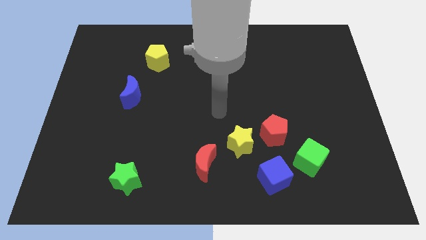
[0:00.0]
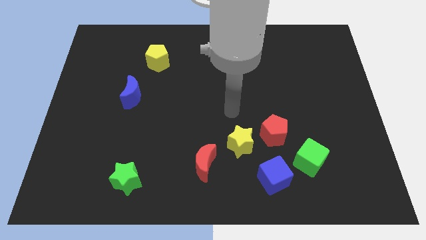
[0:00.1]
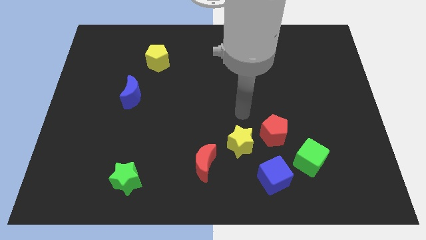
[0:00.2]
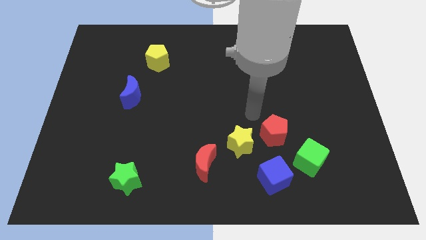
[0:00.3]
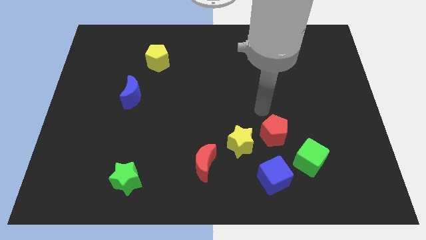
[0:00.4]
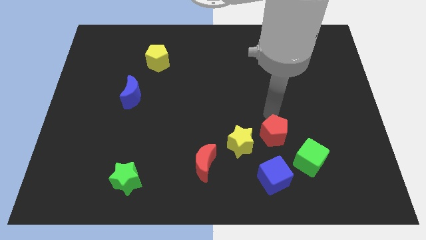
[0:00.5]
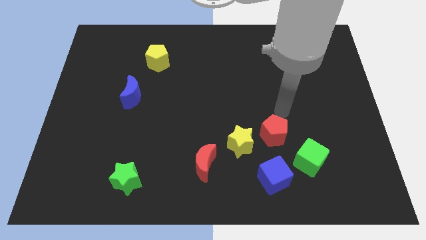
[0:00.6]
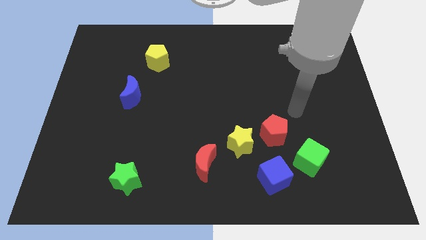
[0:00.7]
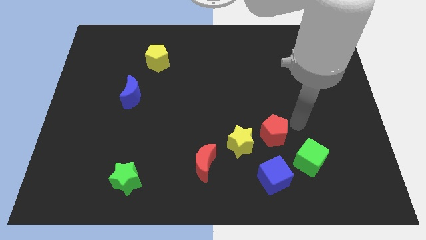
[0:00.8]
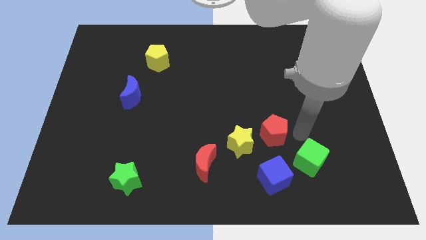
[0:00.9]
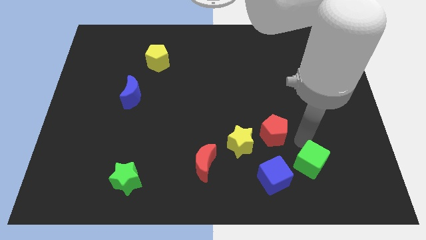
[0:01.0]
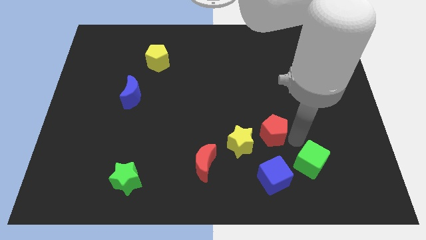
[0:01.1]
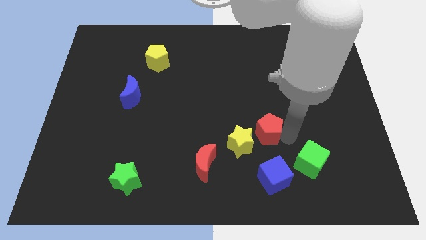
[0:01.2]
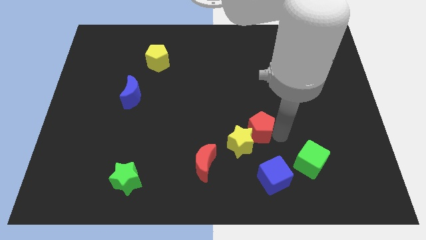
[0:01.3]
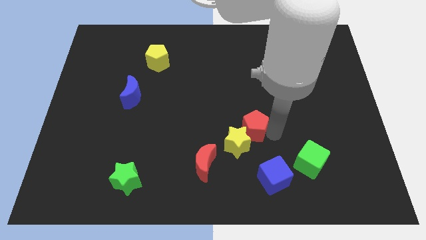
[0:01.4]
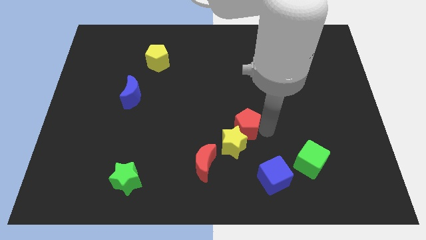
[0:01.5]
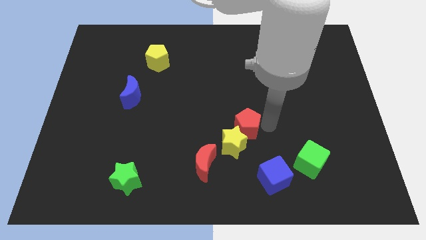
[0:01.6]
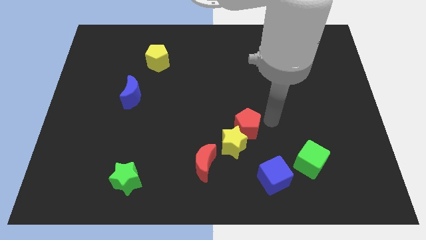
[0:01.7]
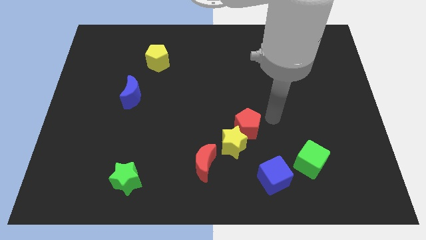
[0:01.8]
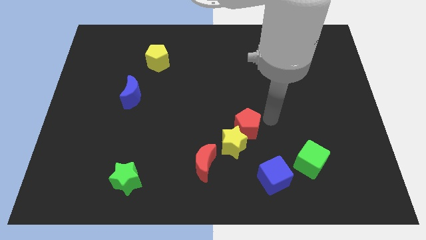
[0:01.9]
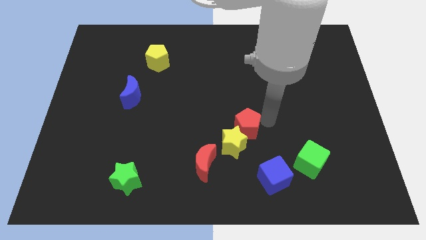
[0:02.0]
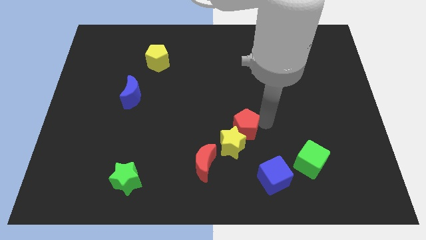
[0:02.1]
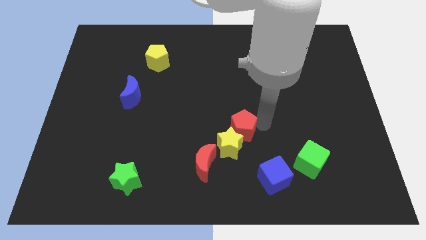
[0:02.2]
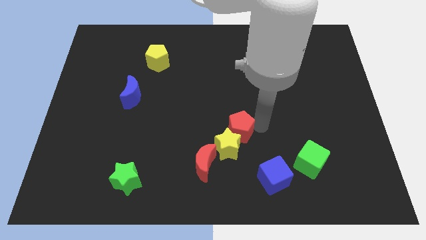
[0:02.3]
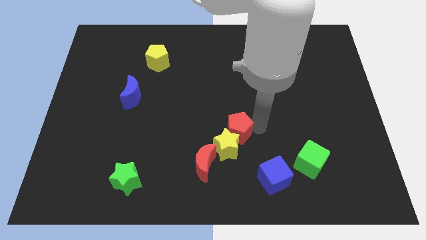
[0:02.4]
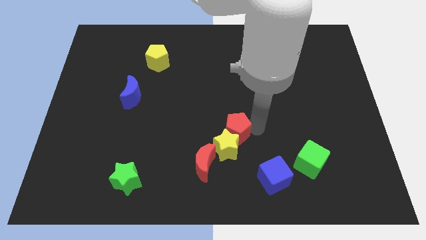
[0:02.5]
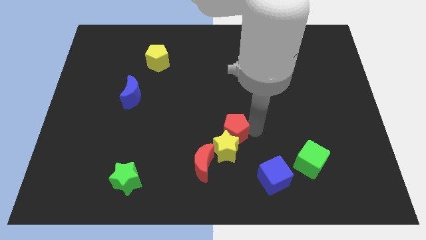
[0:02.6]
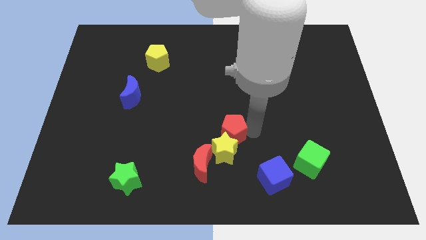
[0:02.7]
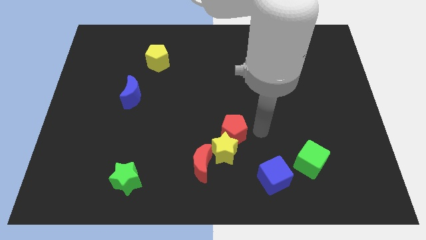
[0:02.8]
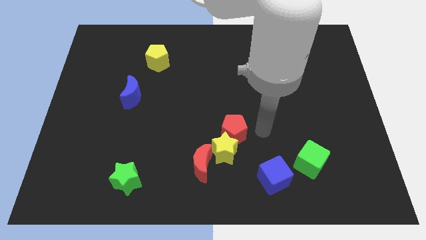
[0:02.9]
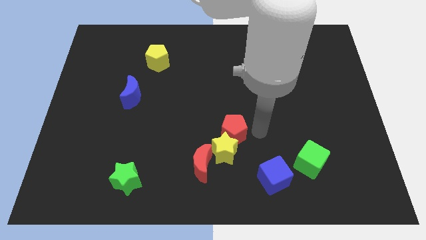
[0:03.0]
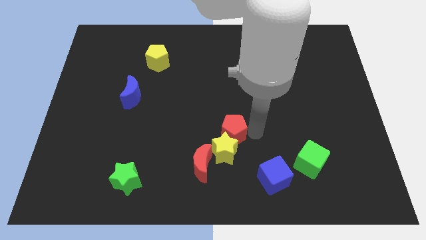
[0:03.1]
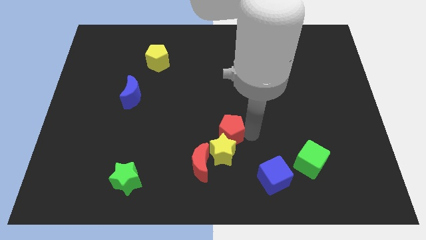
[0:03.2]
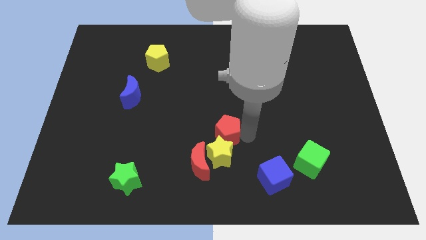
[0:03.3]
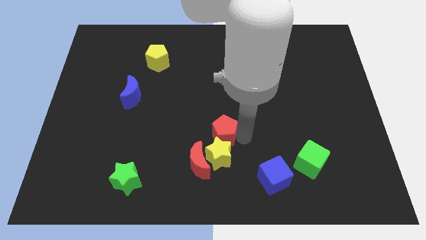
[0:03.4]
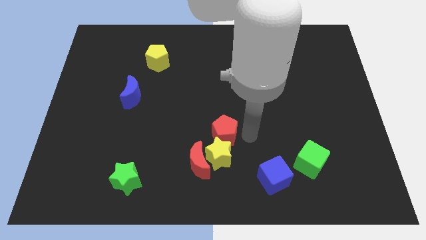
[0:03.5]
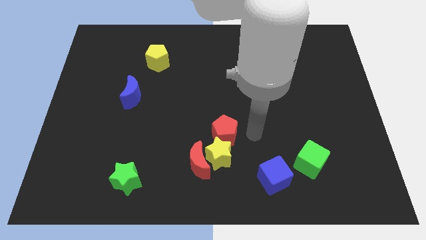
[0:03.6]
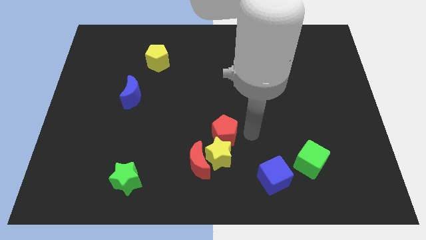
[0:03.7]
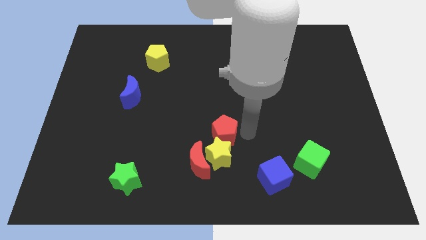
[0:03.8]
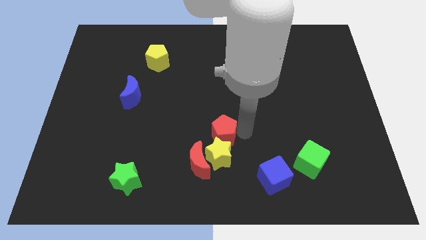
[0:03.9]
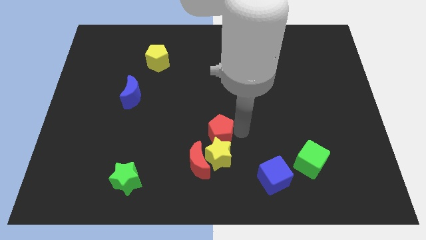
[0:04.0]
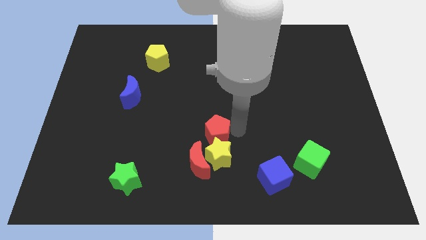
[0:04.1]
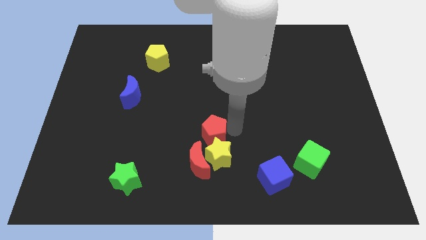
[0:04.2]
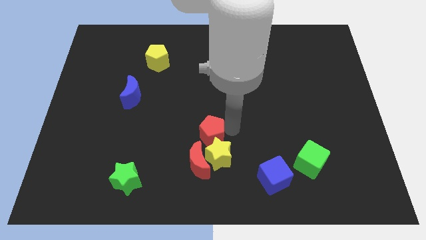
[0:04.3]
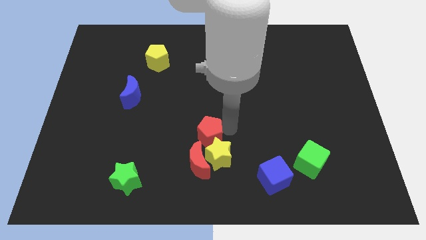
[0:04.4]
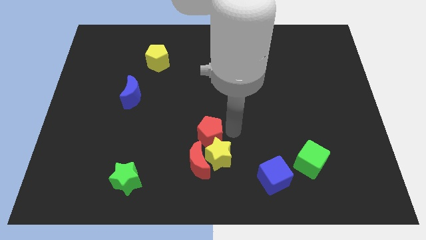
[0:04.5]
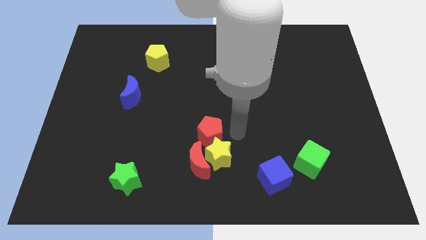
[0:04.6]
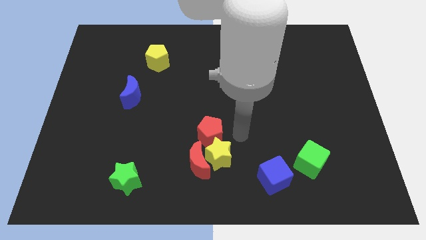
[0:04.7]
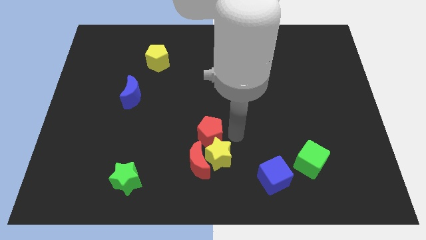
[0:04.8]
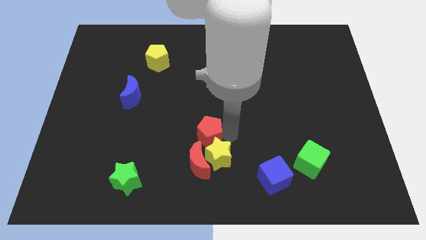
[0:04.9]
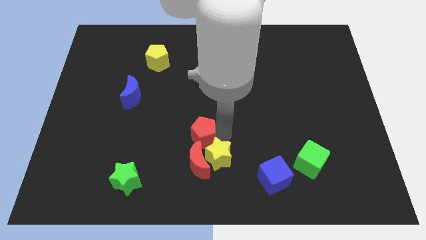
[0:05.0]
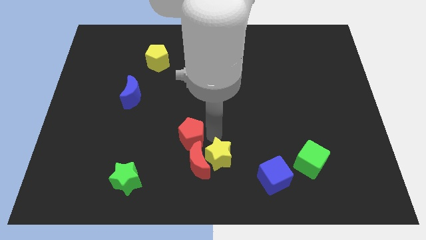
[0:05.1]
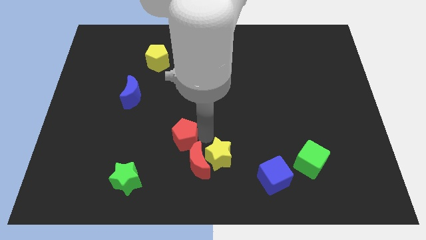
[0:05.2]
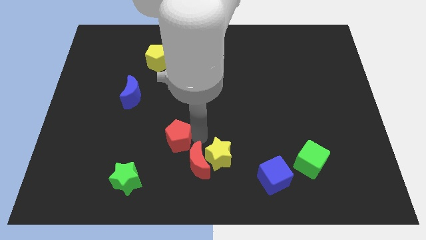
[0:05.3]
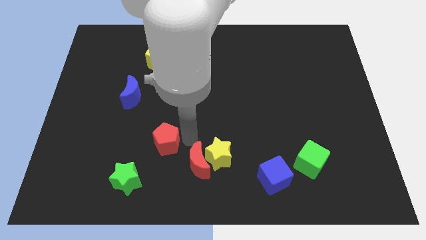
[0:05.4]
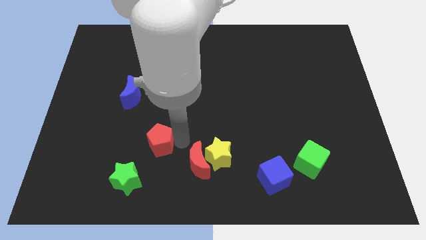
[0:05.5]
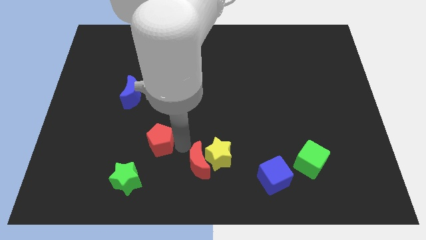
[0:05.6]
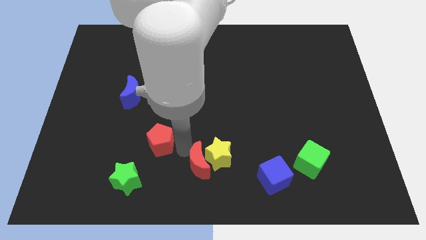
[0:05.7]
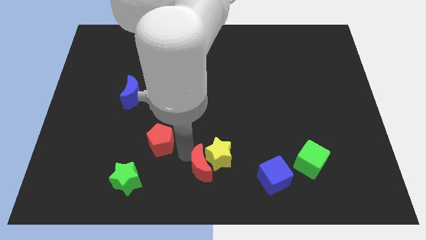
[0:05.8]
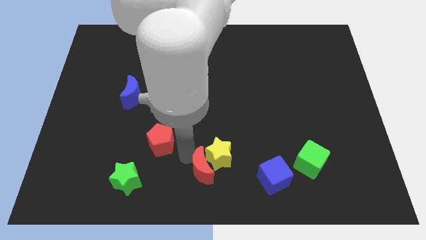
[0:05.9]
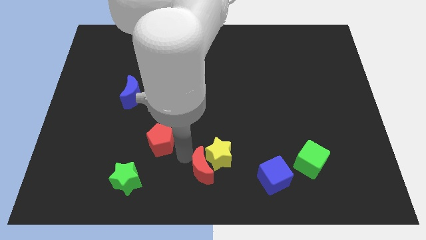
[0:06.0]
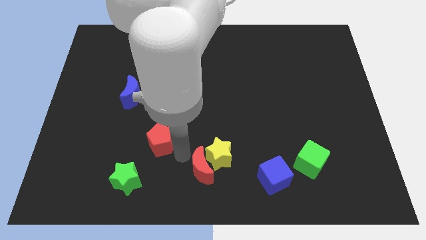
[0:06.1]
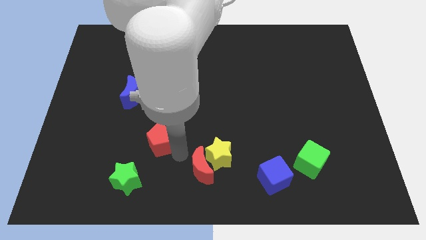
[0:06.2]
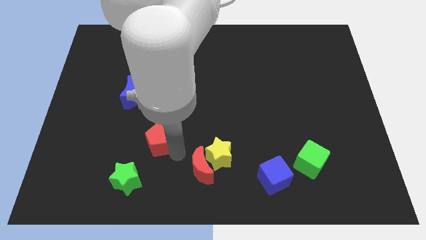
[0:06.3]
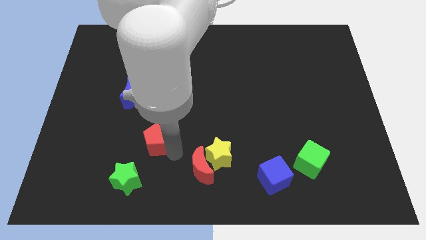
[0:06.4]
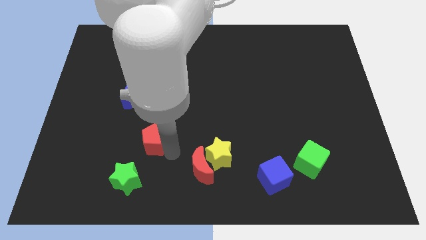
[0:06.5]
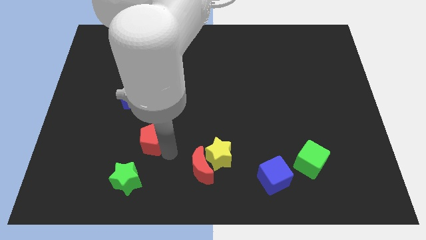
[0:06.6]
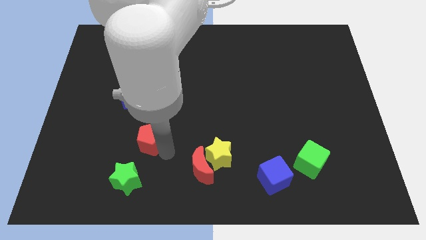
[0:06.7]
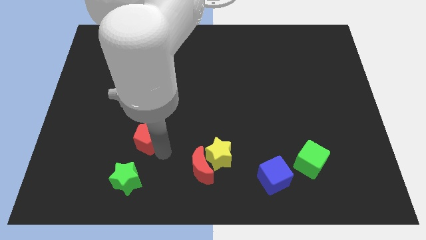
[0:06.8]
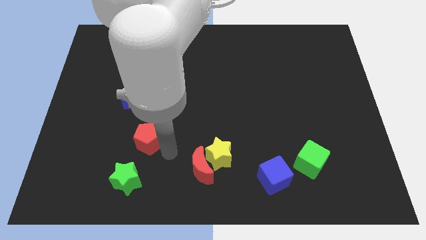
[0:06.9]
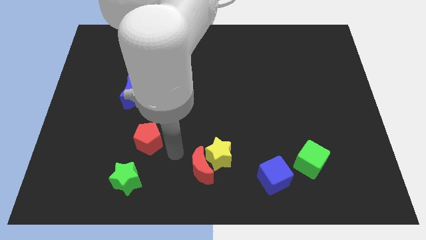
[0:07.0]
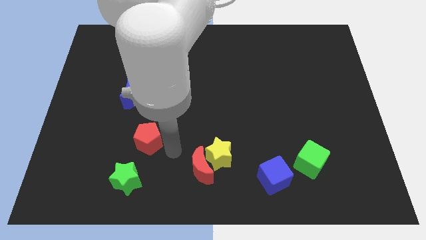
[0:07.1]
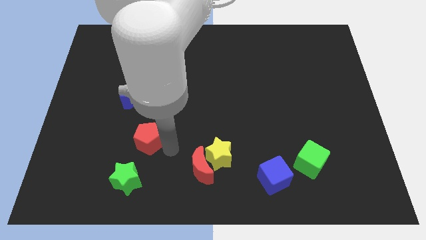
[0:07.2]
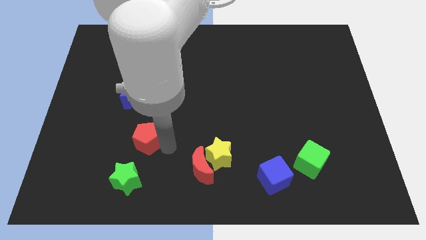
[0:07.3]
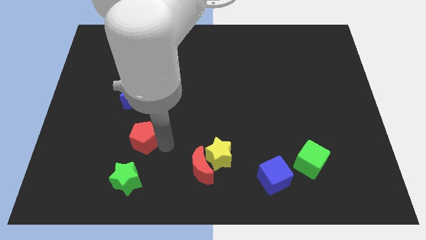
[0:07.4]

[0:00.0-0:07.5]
move the red pentagon to the bottom of the blue moon
